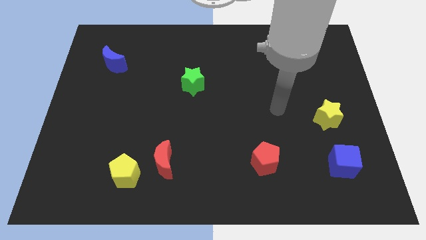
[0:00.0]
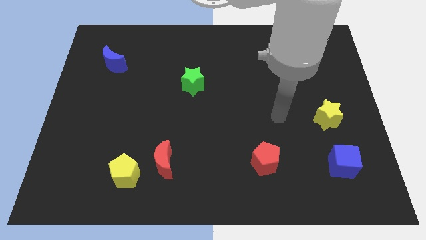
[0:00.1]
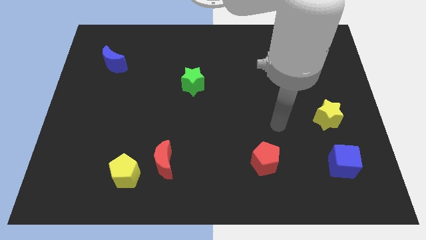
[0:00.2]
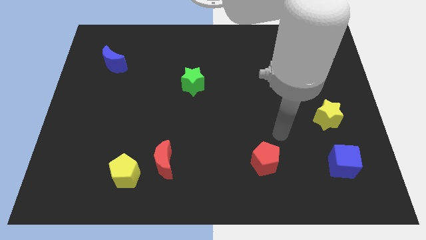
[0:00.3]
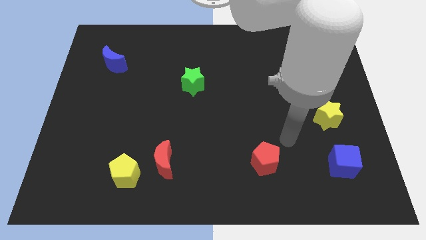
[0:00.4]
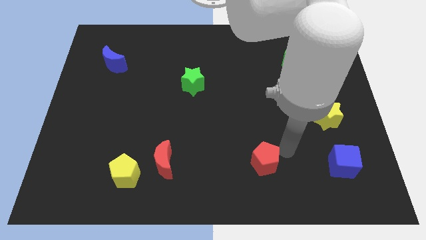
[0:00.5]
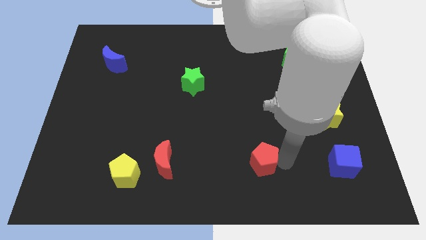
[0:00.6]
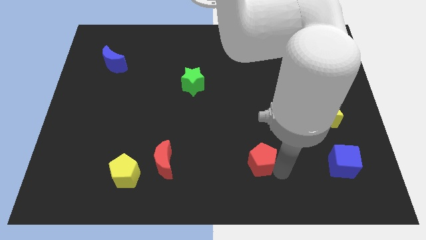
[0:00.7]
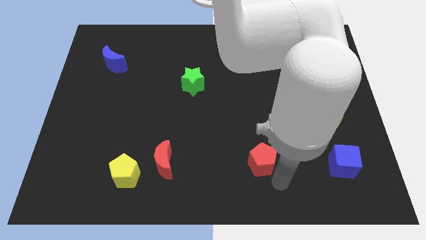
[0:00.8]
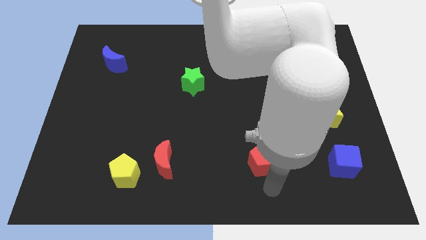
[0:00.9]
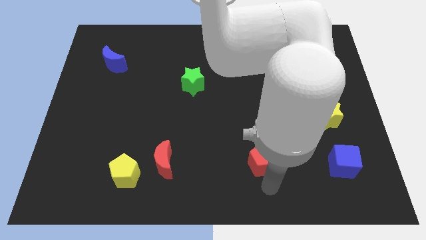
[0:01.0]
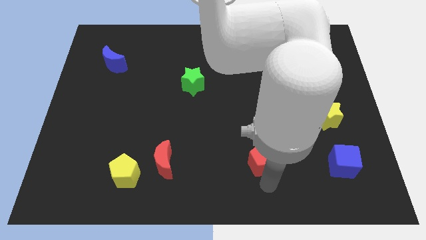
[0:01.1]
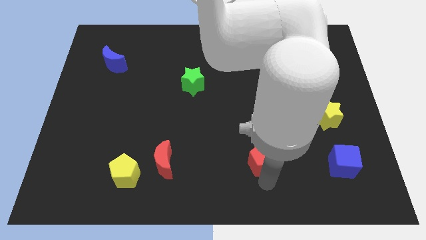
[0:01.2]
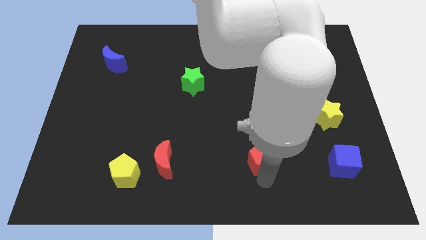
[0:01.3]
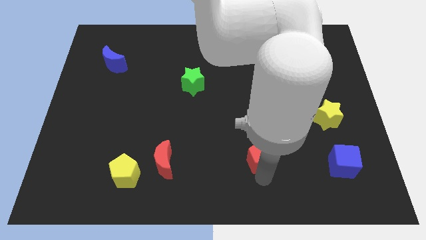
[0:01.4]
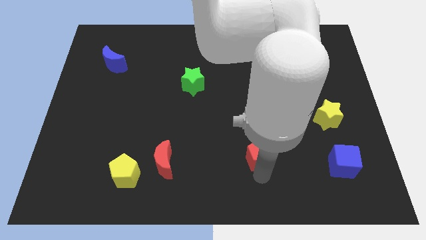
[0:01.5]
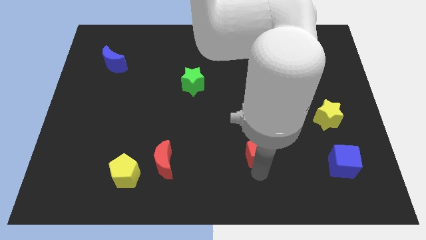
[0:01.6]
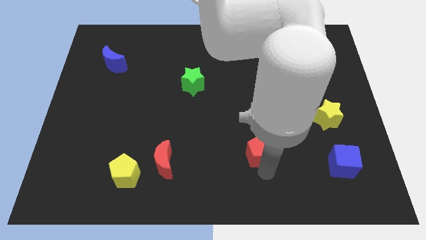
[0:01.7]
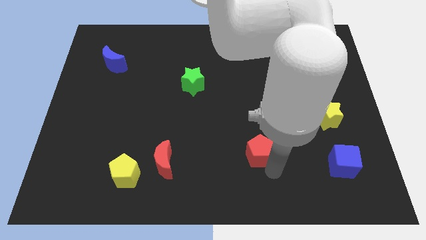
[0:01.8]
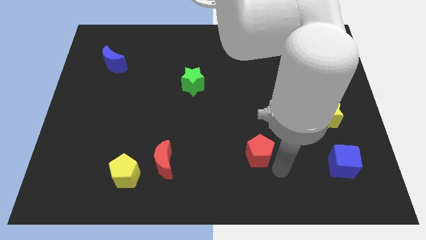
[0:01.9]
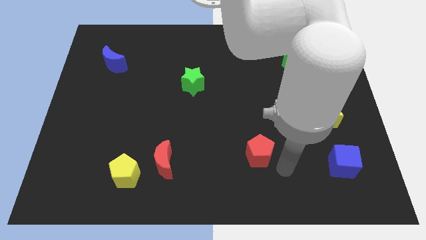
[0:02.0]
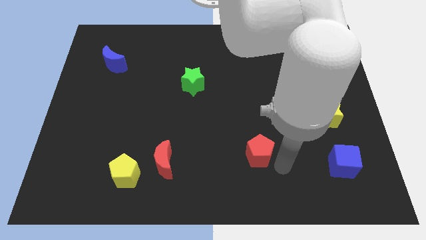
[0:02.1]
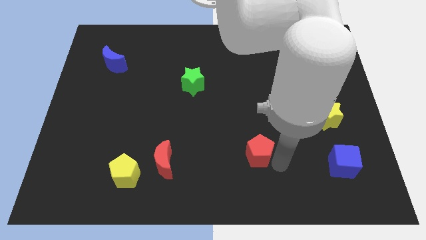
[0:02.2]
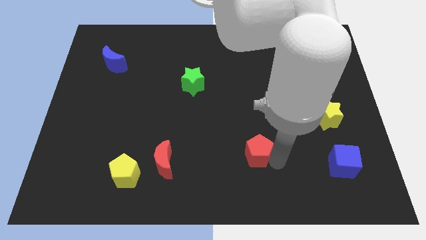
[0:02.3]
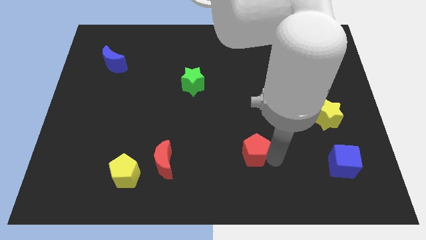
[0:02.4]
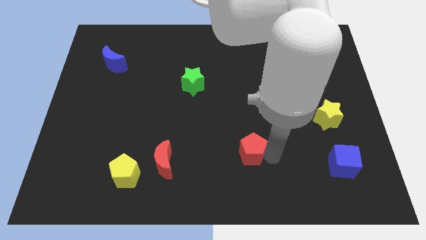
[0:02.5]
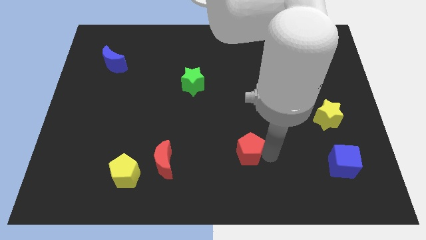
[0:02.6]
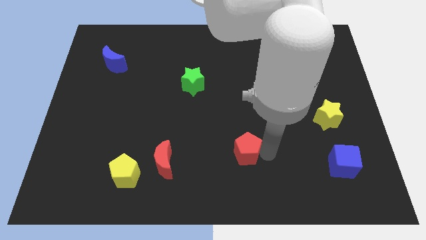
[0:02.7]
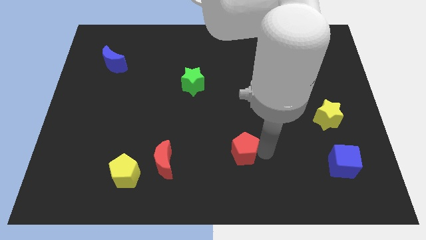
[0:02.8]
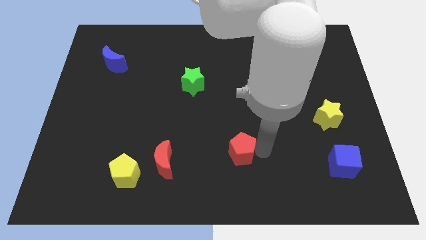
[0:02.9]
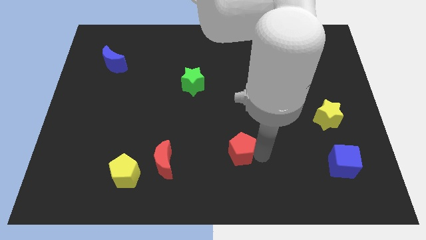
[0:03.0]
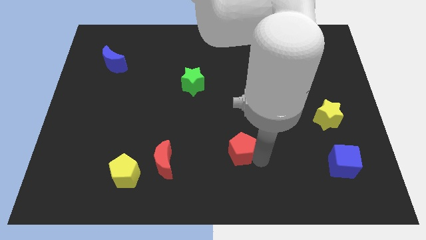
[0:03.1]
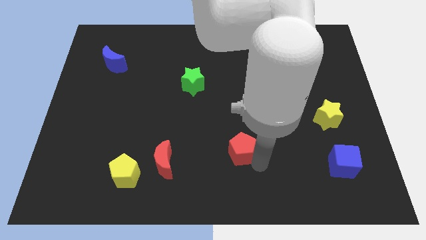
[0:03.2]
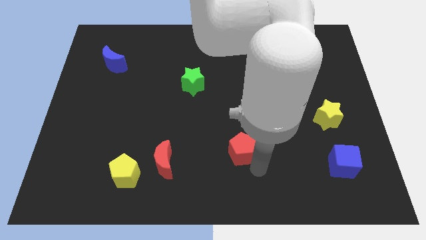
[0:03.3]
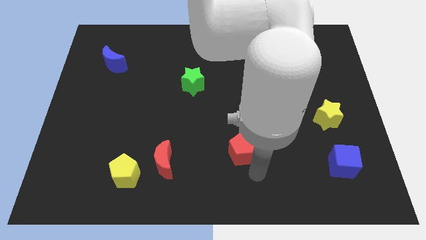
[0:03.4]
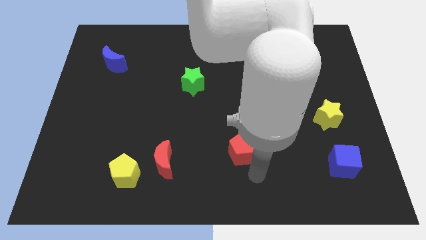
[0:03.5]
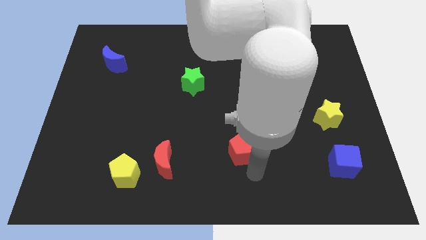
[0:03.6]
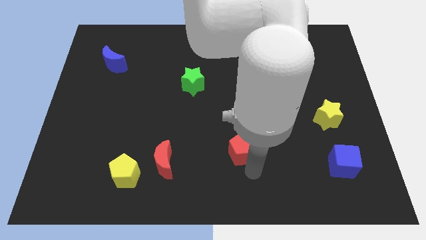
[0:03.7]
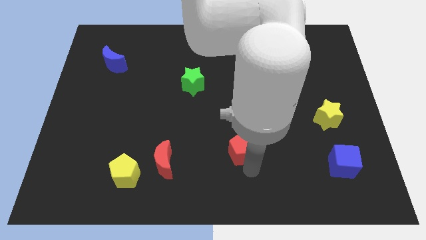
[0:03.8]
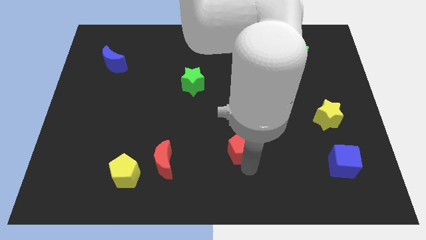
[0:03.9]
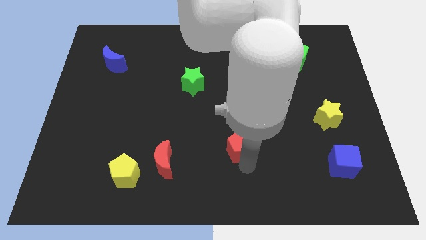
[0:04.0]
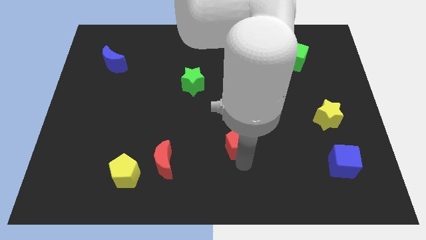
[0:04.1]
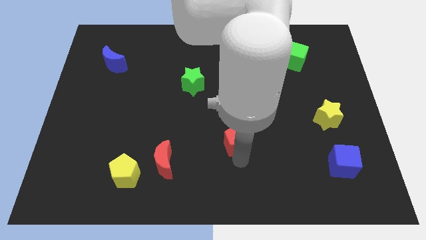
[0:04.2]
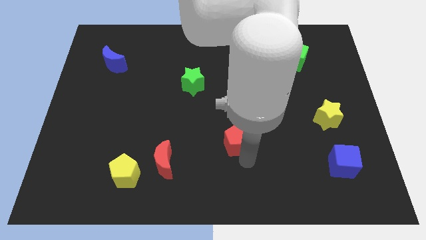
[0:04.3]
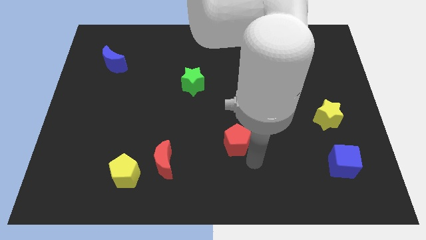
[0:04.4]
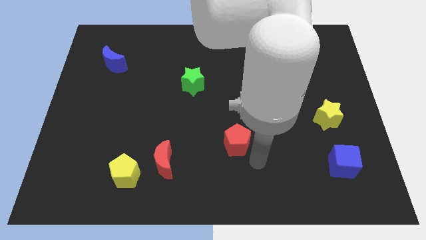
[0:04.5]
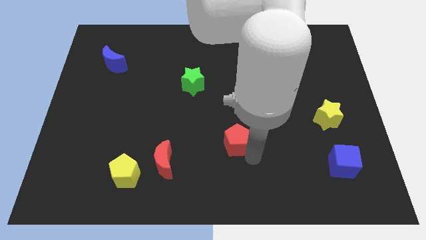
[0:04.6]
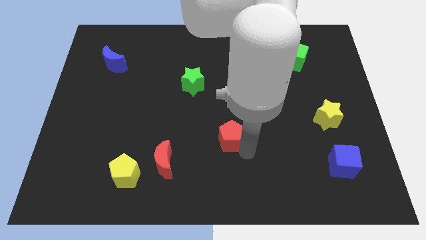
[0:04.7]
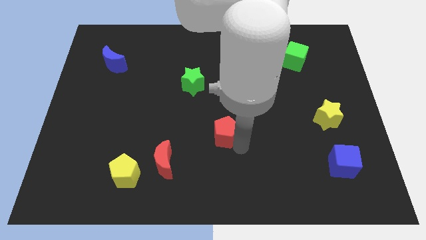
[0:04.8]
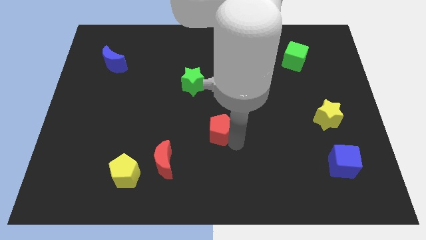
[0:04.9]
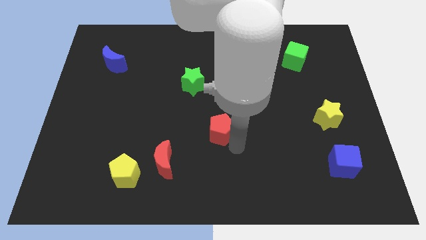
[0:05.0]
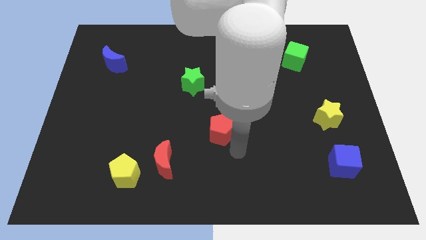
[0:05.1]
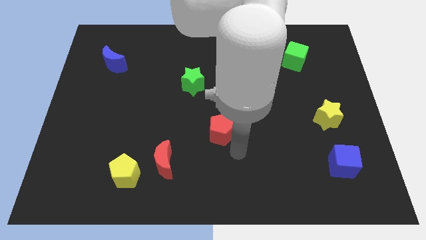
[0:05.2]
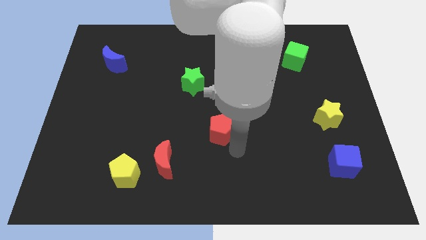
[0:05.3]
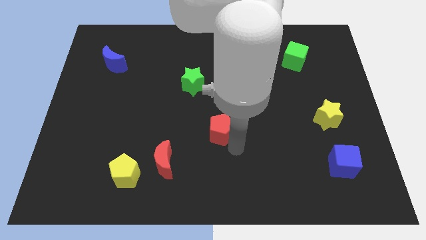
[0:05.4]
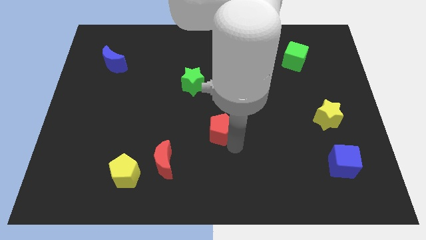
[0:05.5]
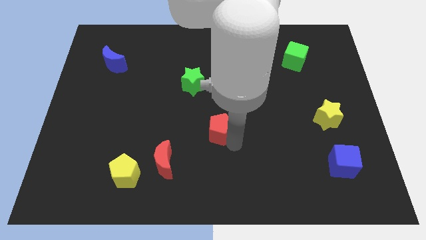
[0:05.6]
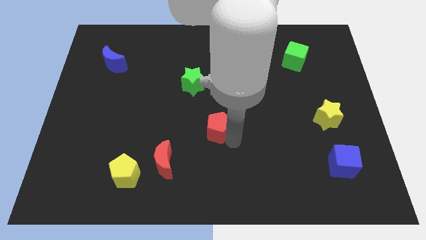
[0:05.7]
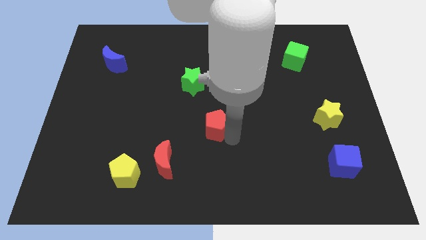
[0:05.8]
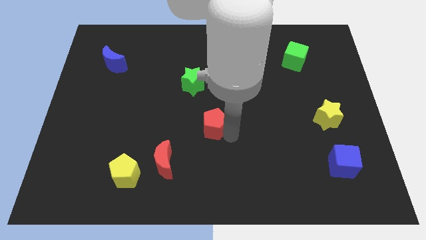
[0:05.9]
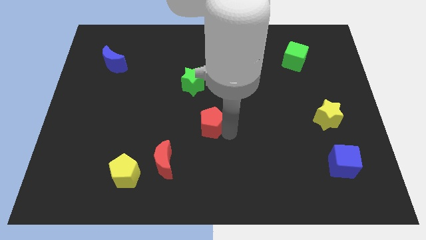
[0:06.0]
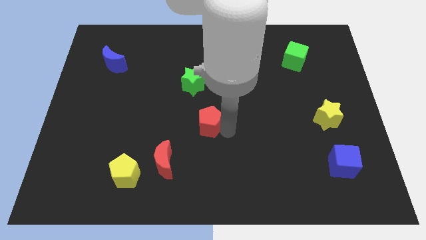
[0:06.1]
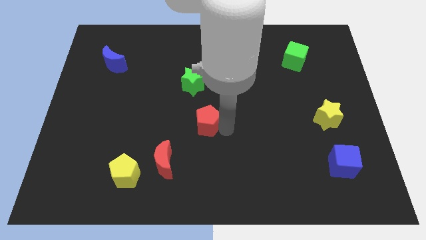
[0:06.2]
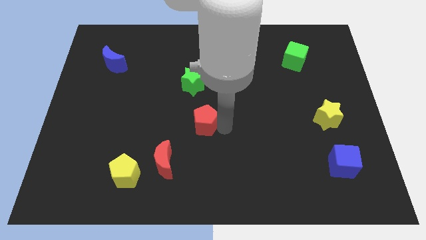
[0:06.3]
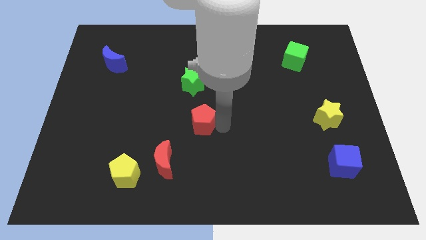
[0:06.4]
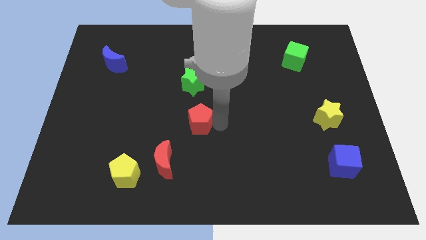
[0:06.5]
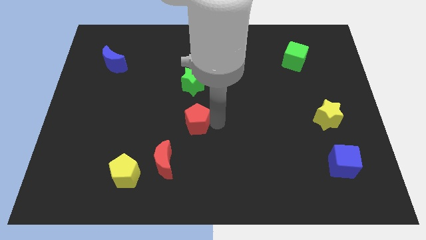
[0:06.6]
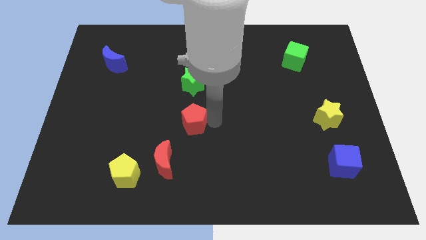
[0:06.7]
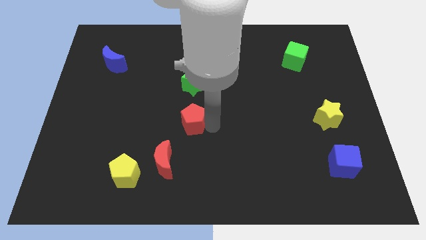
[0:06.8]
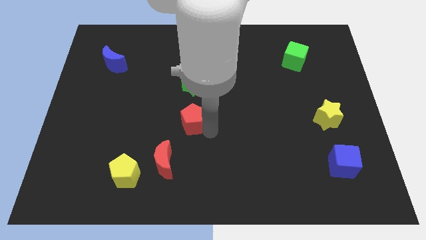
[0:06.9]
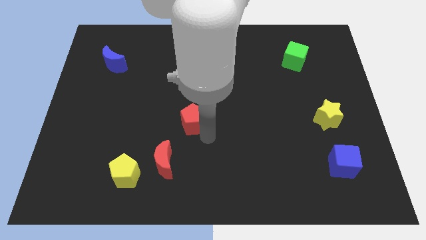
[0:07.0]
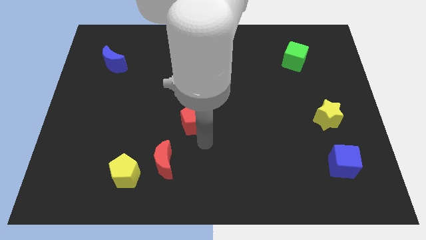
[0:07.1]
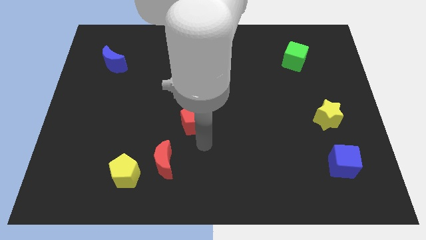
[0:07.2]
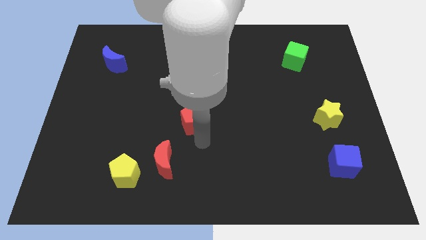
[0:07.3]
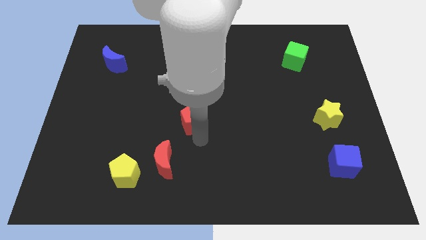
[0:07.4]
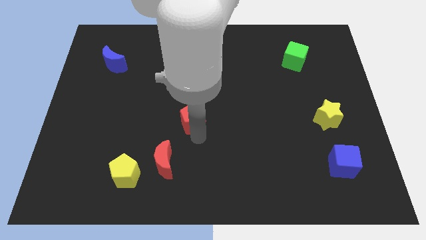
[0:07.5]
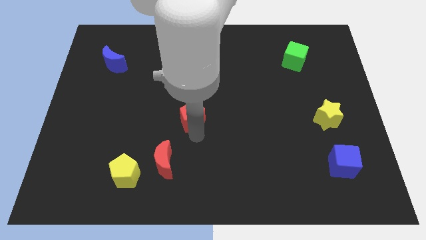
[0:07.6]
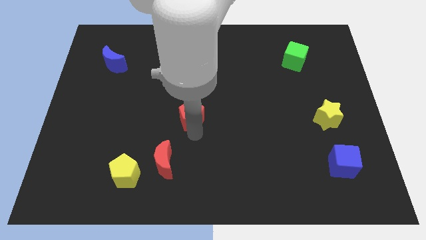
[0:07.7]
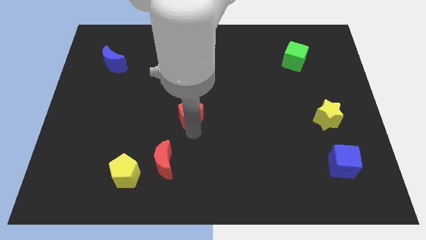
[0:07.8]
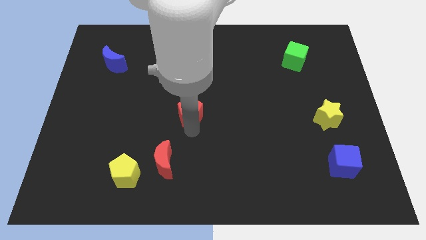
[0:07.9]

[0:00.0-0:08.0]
push the red pentagon diagonally upwards and left

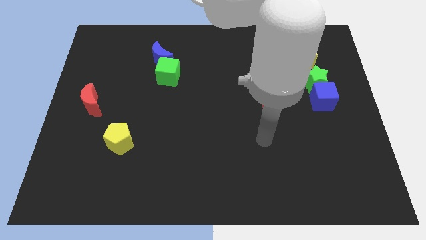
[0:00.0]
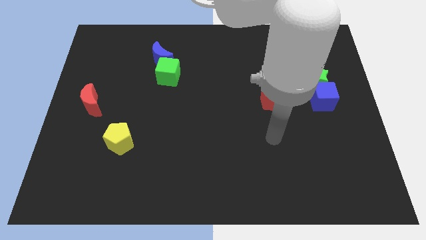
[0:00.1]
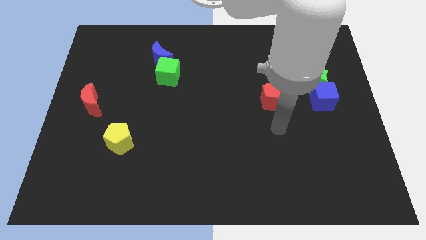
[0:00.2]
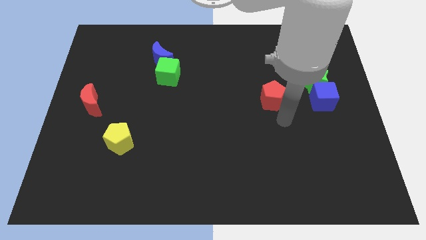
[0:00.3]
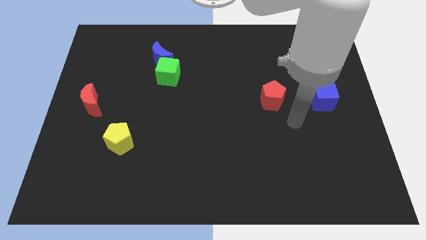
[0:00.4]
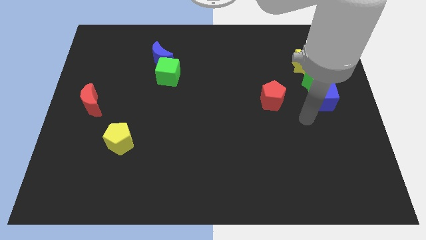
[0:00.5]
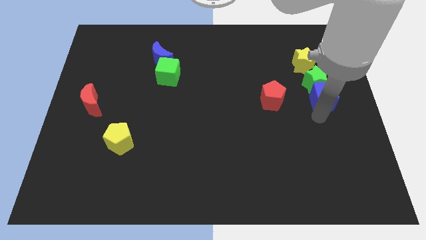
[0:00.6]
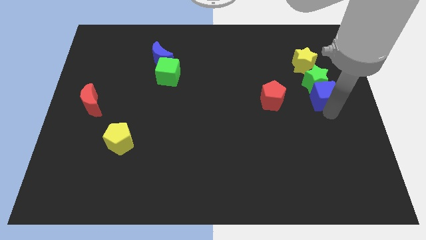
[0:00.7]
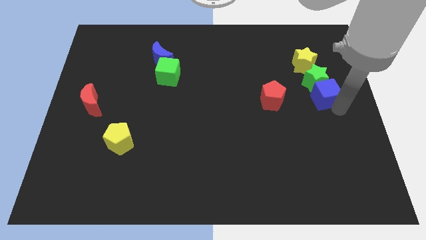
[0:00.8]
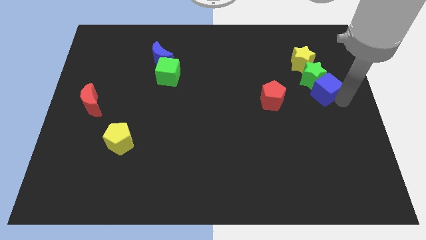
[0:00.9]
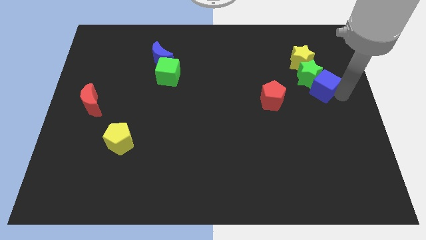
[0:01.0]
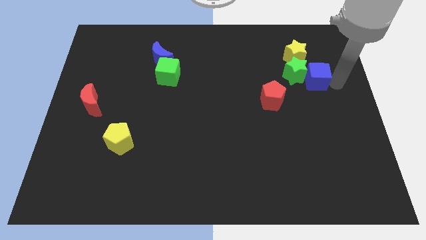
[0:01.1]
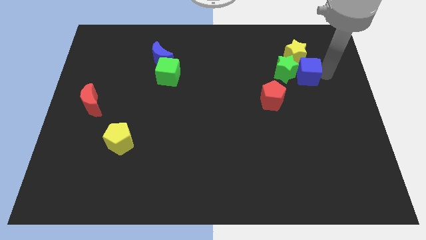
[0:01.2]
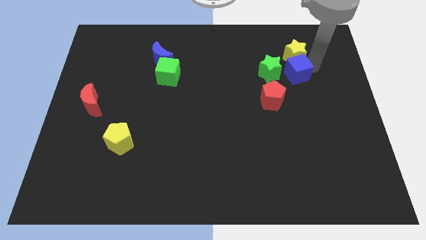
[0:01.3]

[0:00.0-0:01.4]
slide the green star left a little bit
